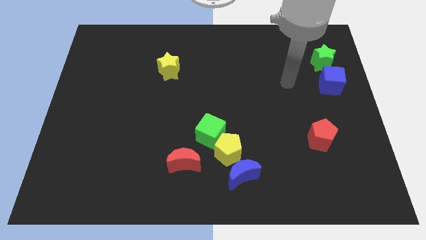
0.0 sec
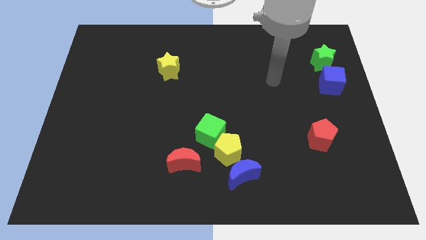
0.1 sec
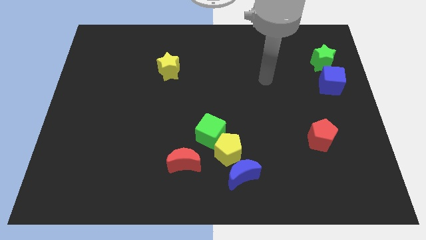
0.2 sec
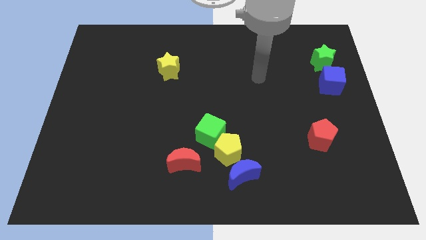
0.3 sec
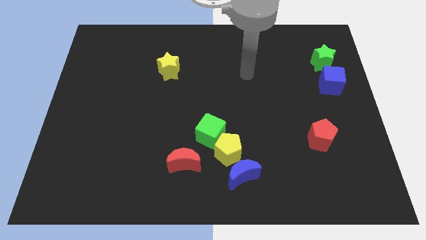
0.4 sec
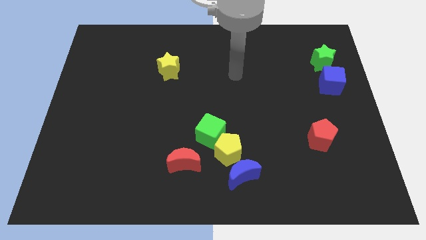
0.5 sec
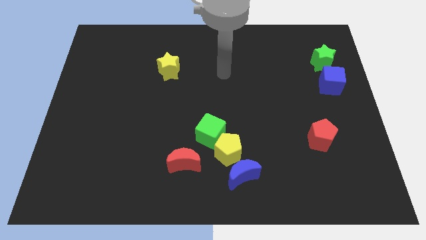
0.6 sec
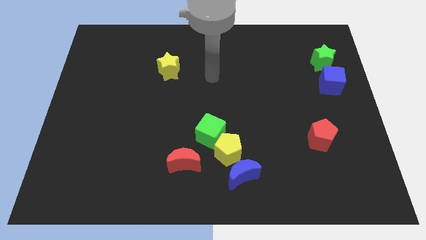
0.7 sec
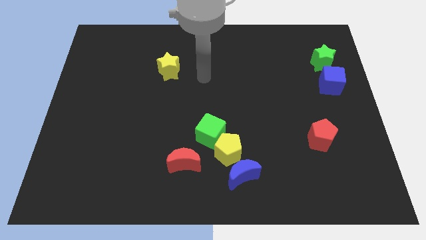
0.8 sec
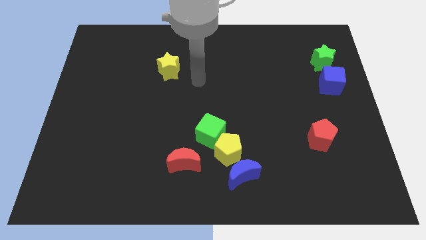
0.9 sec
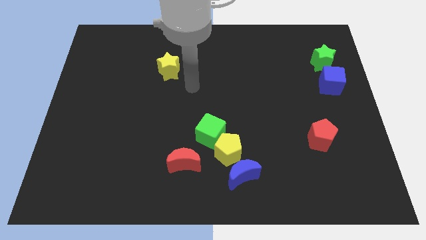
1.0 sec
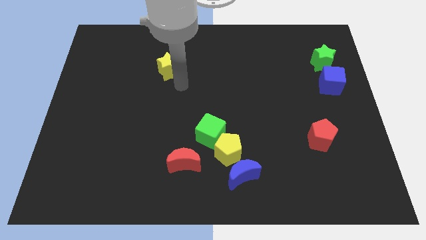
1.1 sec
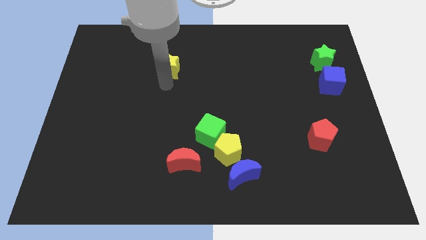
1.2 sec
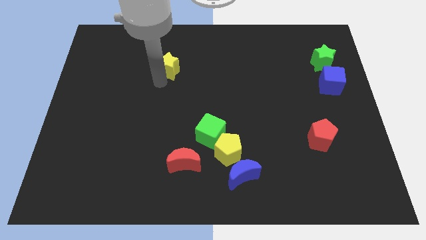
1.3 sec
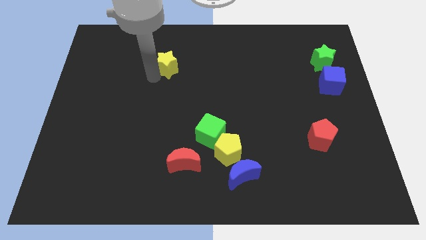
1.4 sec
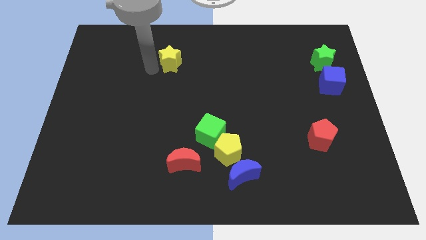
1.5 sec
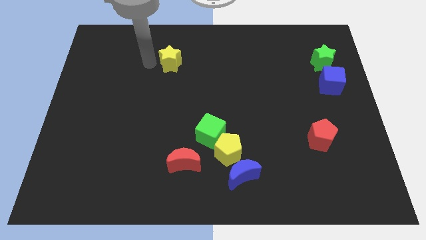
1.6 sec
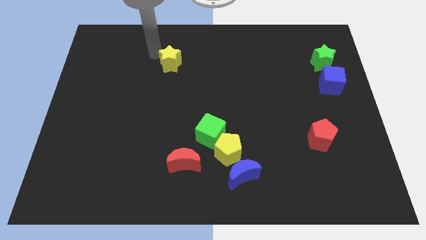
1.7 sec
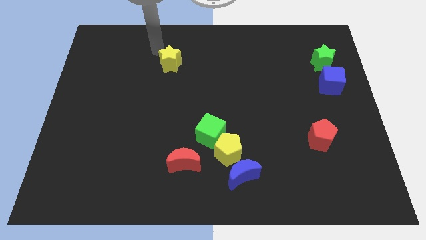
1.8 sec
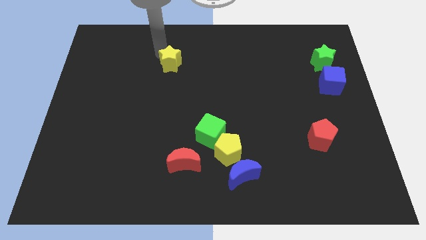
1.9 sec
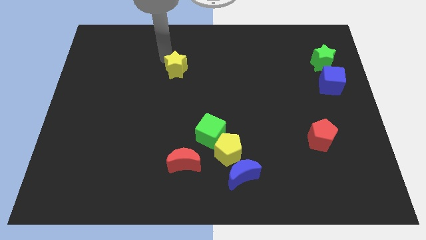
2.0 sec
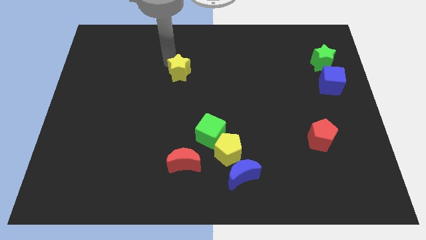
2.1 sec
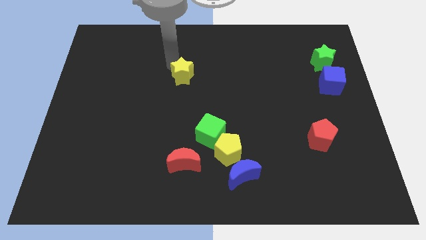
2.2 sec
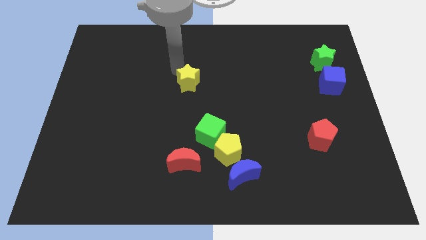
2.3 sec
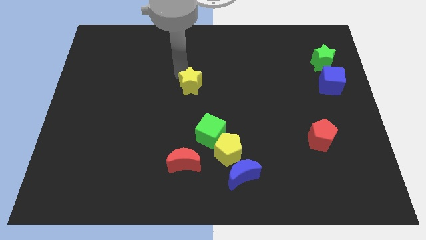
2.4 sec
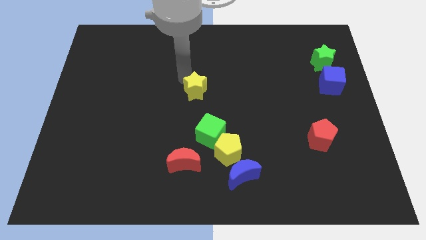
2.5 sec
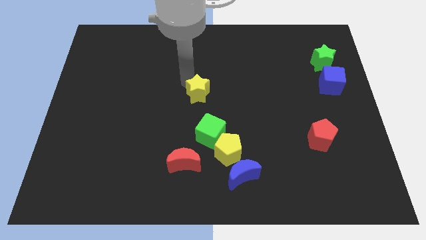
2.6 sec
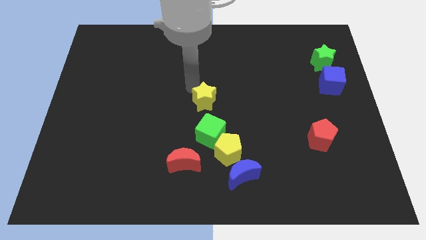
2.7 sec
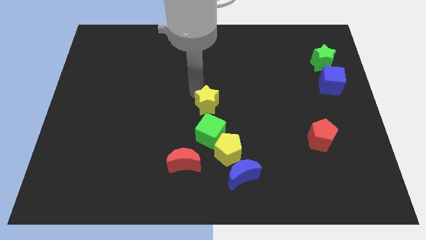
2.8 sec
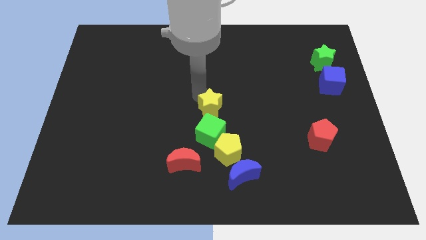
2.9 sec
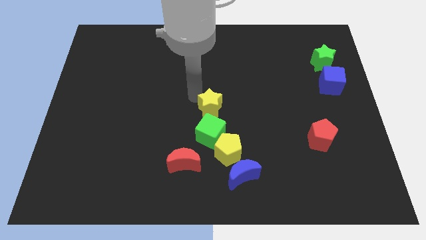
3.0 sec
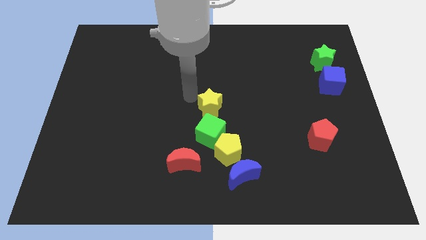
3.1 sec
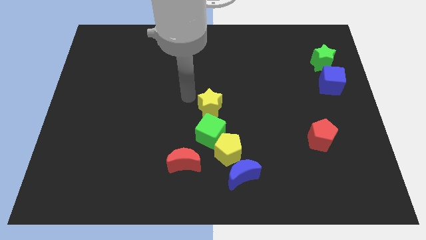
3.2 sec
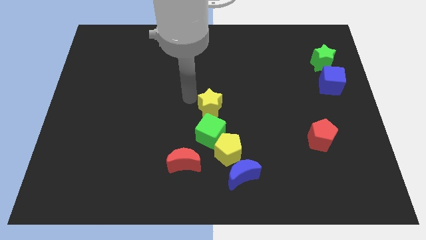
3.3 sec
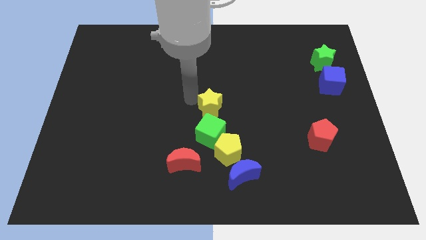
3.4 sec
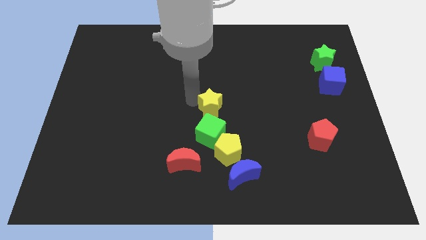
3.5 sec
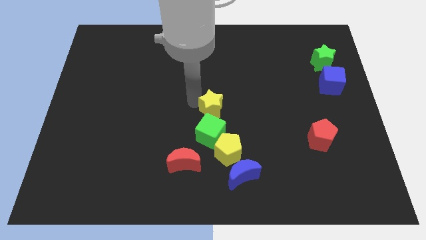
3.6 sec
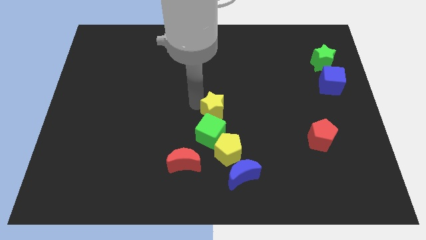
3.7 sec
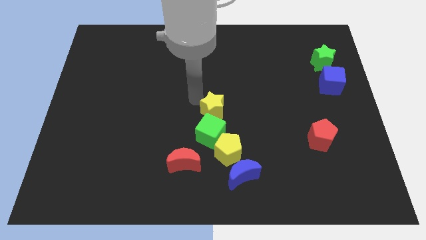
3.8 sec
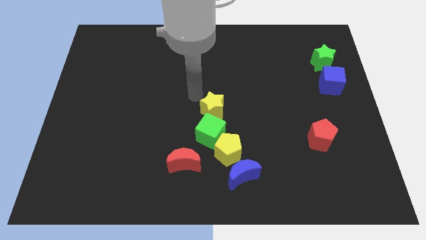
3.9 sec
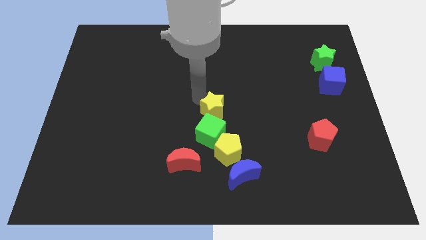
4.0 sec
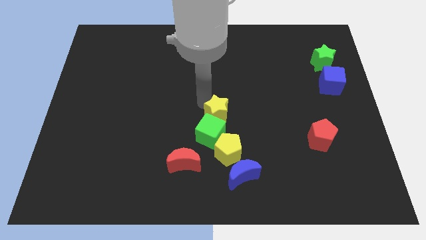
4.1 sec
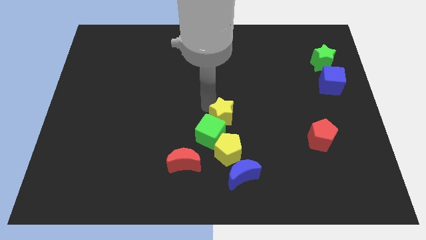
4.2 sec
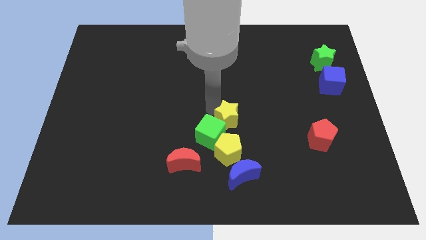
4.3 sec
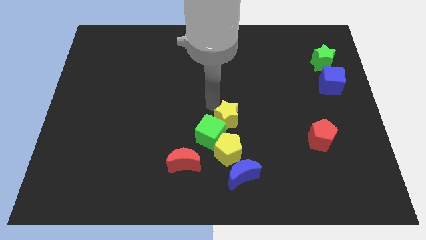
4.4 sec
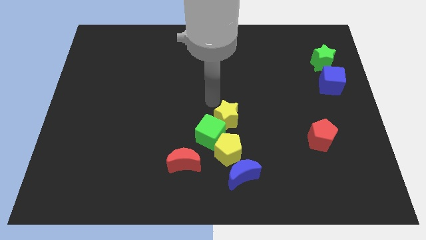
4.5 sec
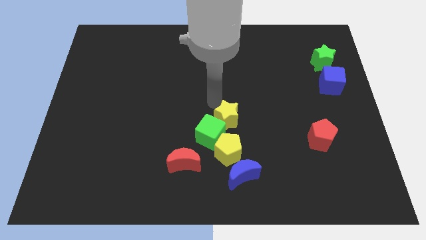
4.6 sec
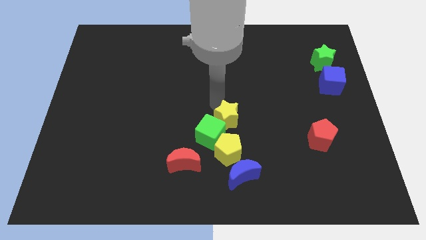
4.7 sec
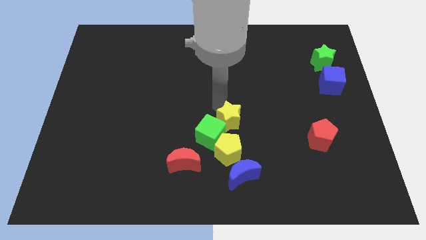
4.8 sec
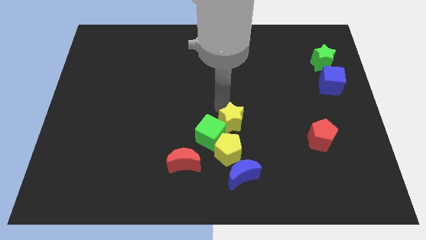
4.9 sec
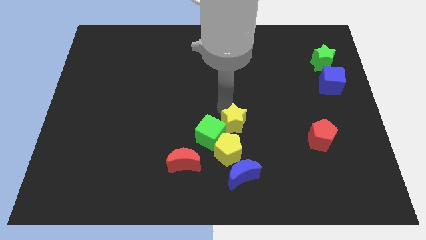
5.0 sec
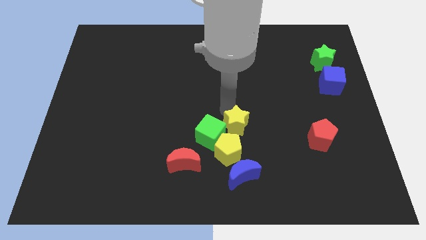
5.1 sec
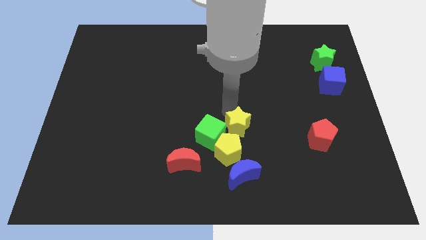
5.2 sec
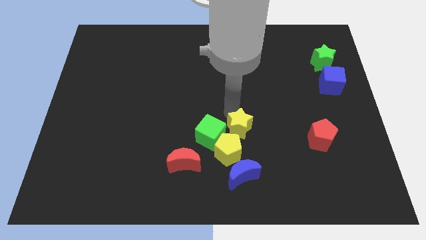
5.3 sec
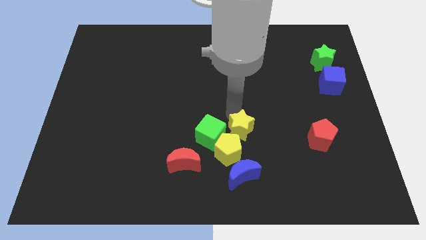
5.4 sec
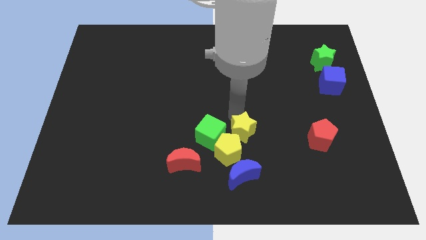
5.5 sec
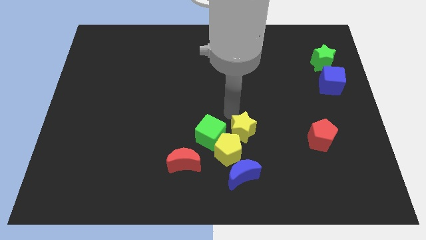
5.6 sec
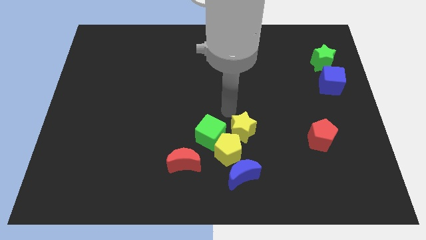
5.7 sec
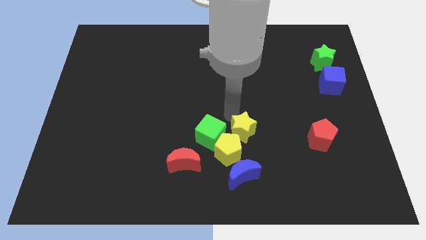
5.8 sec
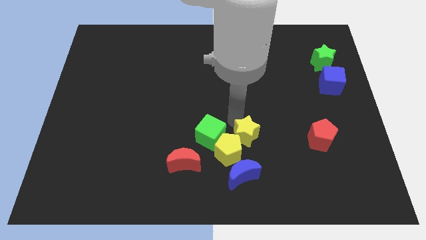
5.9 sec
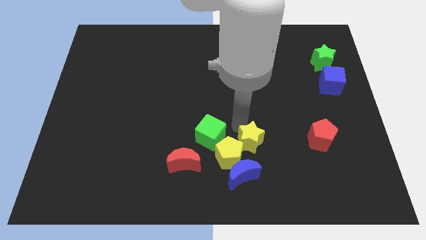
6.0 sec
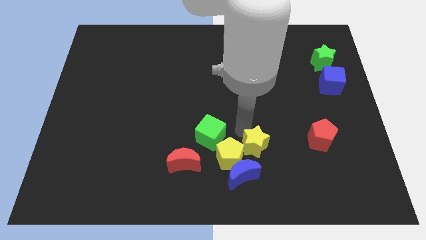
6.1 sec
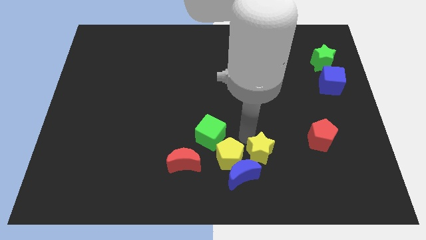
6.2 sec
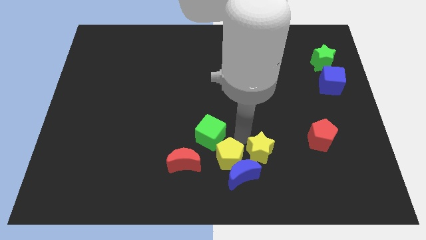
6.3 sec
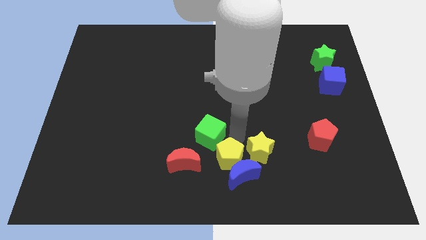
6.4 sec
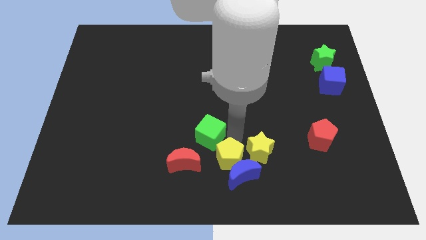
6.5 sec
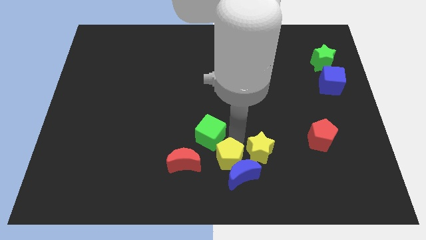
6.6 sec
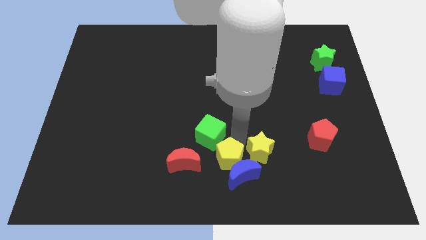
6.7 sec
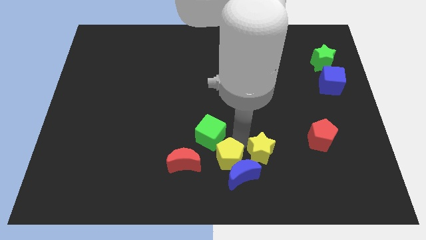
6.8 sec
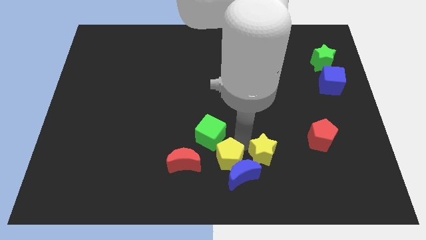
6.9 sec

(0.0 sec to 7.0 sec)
slide the yellow star just right of the blue moon
